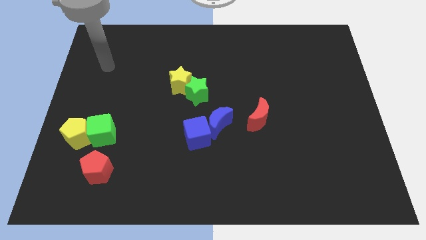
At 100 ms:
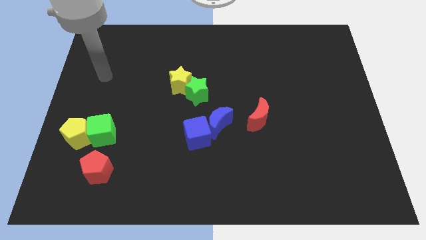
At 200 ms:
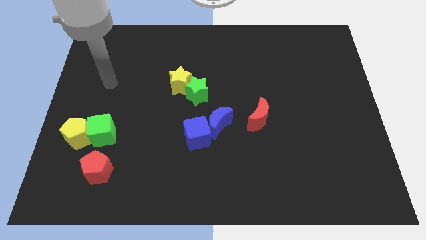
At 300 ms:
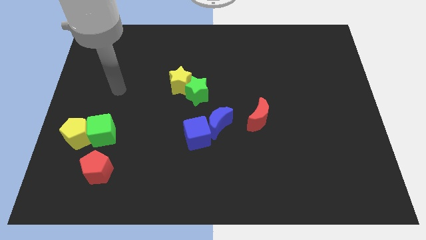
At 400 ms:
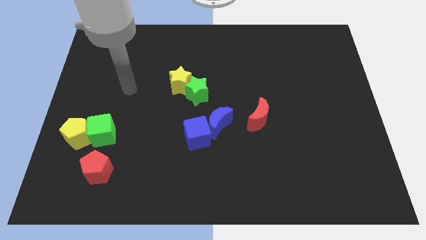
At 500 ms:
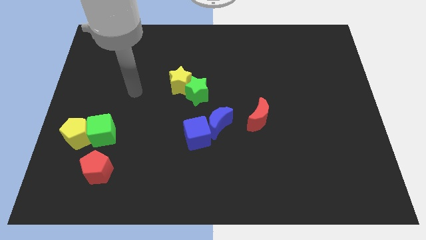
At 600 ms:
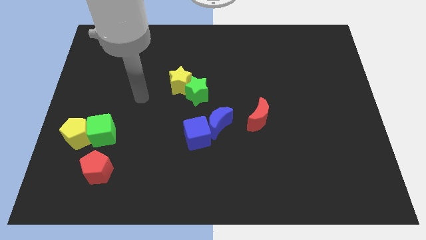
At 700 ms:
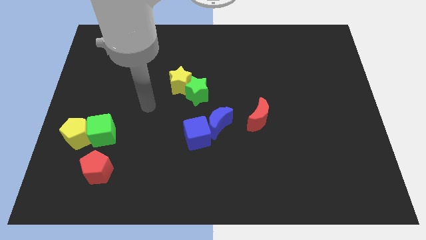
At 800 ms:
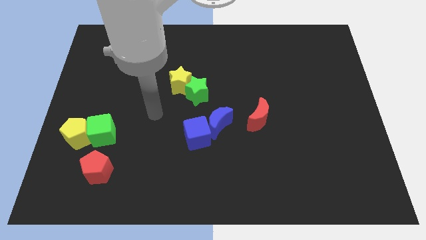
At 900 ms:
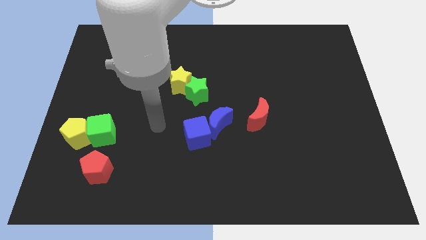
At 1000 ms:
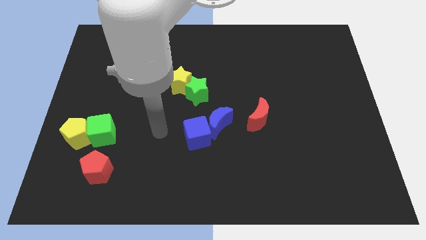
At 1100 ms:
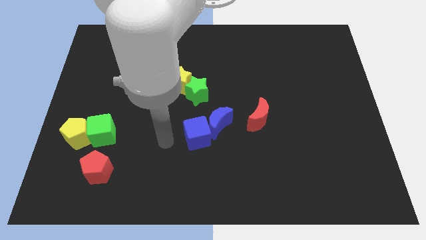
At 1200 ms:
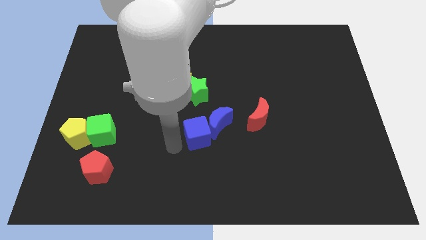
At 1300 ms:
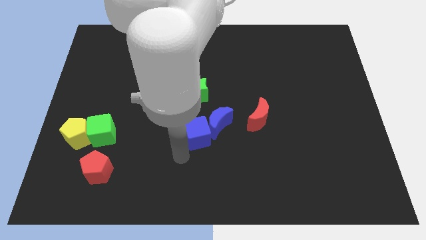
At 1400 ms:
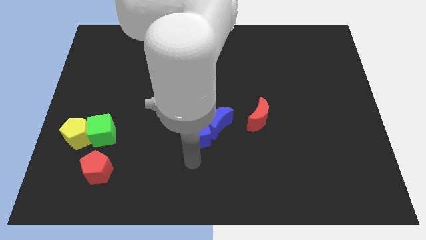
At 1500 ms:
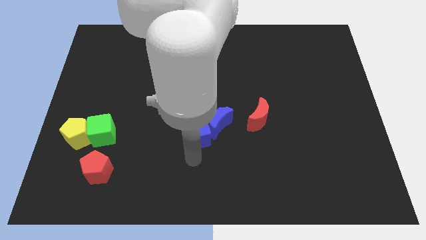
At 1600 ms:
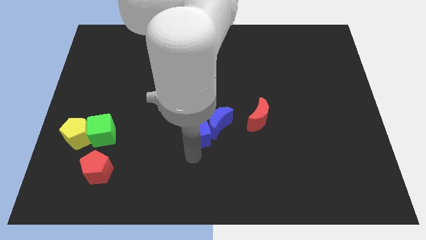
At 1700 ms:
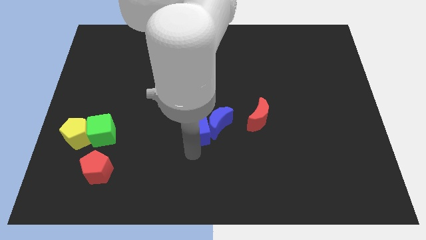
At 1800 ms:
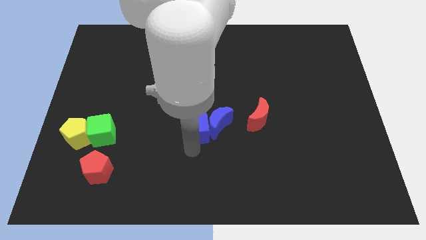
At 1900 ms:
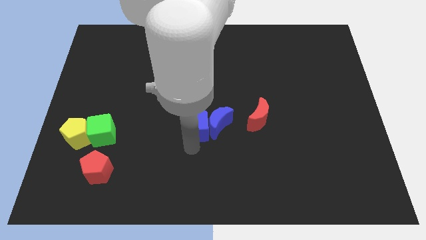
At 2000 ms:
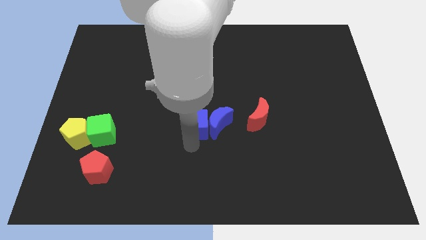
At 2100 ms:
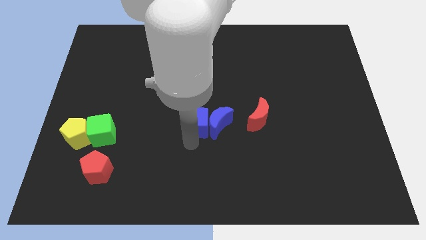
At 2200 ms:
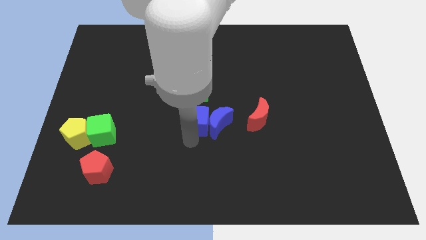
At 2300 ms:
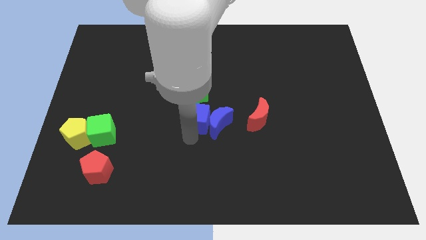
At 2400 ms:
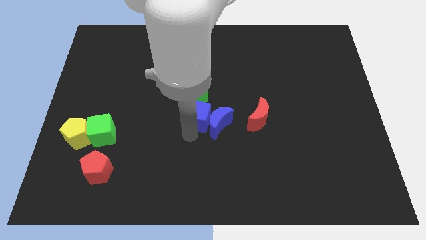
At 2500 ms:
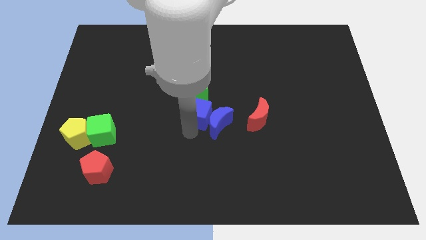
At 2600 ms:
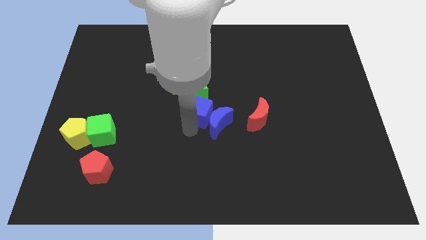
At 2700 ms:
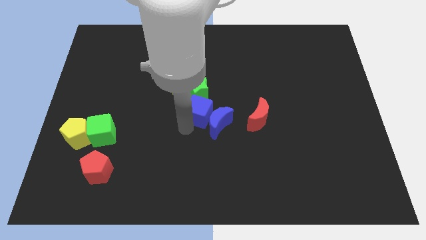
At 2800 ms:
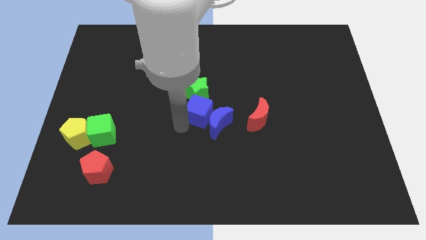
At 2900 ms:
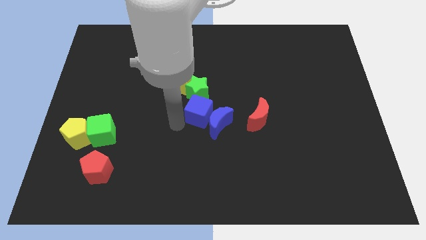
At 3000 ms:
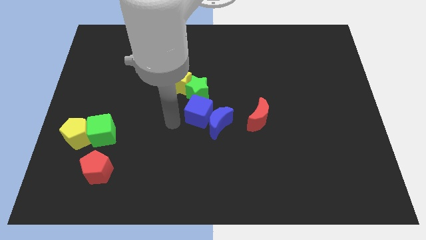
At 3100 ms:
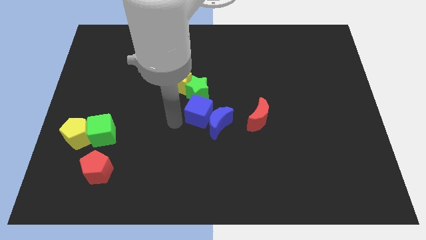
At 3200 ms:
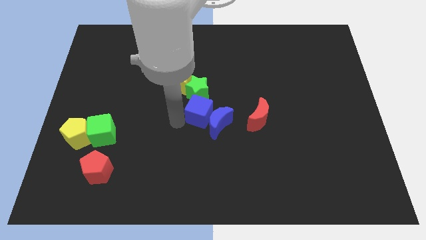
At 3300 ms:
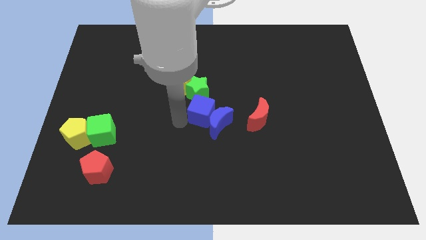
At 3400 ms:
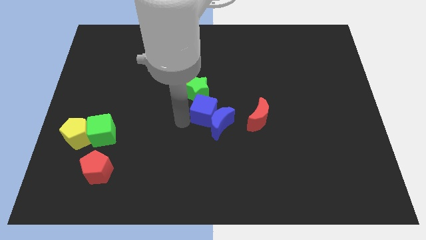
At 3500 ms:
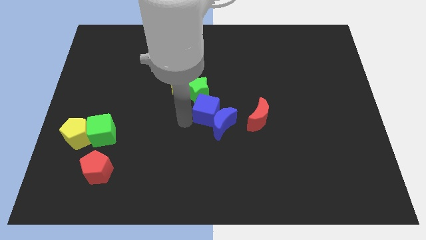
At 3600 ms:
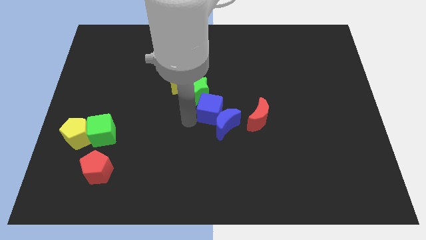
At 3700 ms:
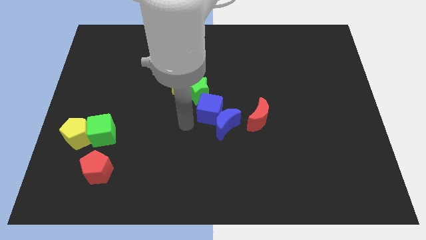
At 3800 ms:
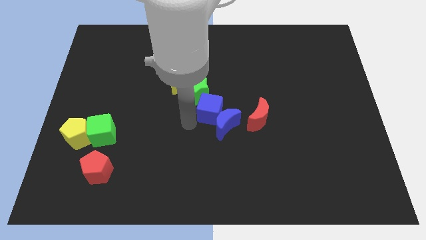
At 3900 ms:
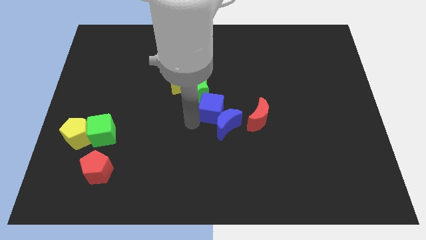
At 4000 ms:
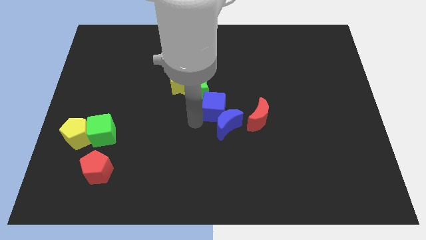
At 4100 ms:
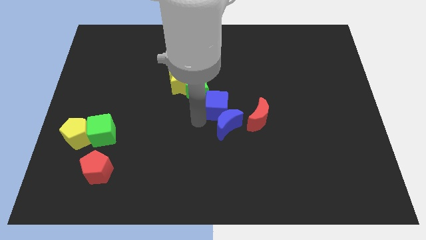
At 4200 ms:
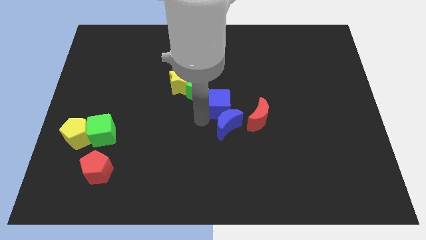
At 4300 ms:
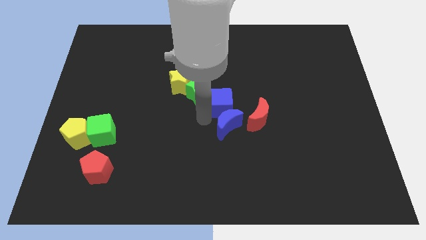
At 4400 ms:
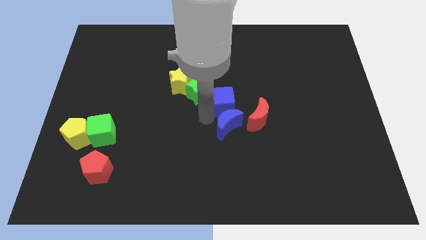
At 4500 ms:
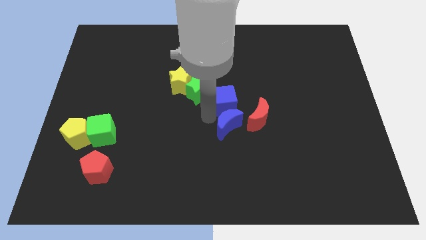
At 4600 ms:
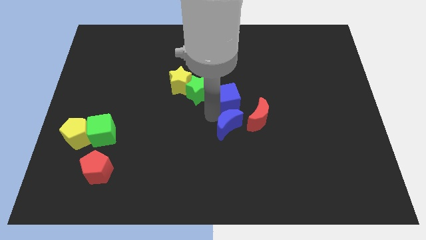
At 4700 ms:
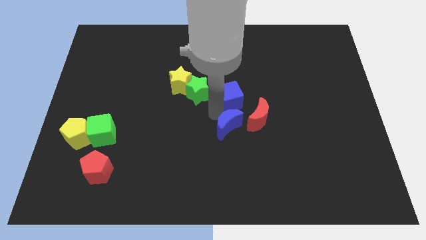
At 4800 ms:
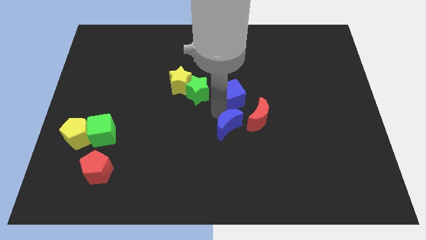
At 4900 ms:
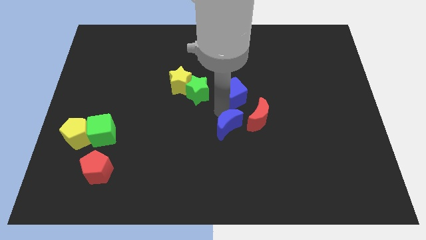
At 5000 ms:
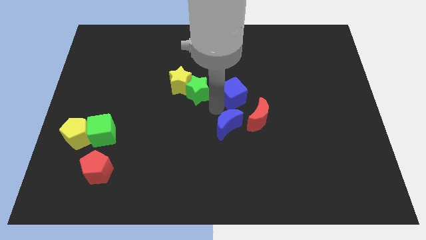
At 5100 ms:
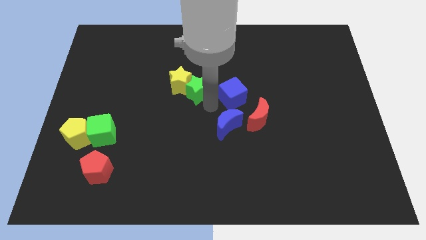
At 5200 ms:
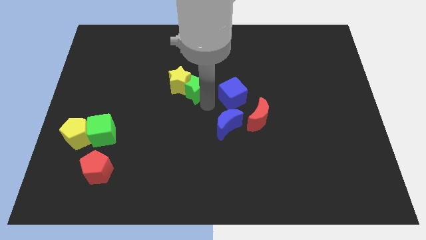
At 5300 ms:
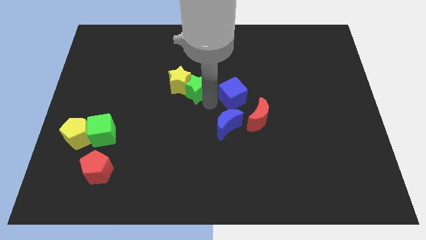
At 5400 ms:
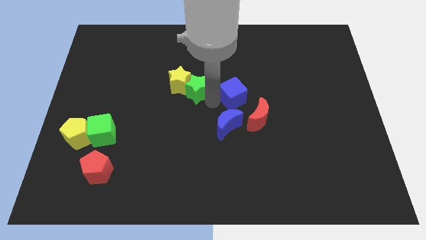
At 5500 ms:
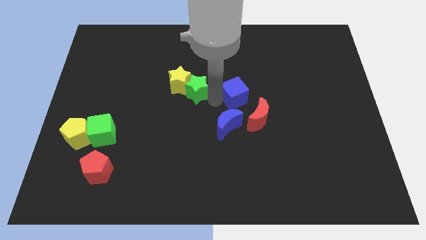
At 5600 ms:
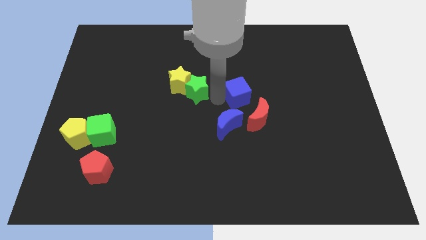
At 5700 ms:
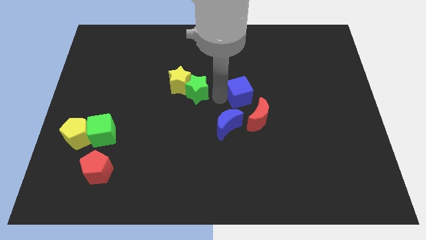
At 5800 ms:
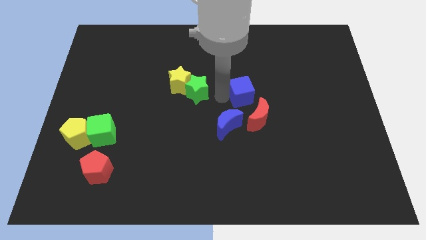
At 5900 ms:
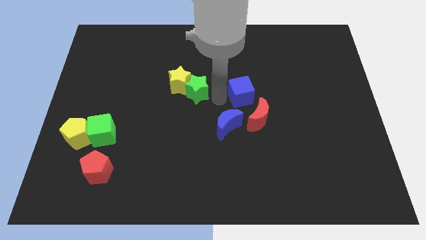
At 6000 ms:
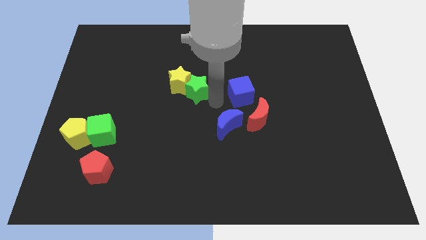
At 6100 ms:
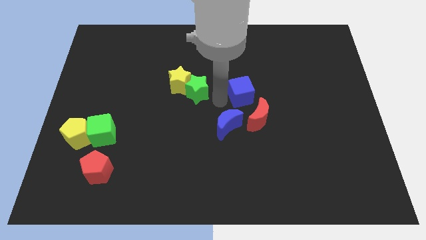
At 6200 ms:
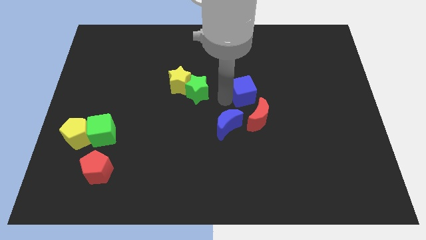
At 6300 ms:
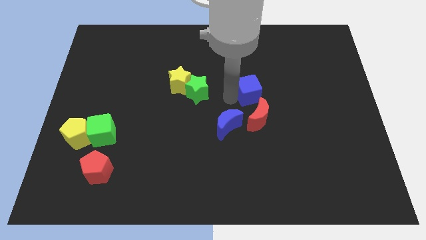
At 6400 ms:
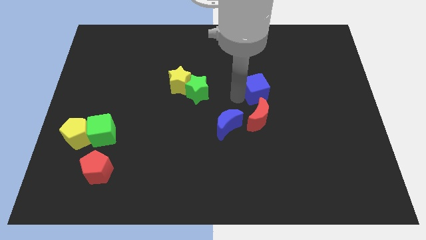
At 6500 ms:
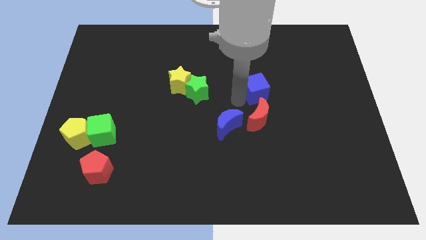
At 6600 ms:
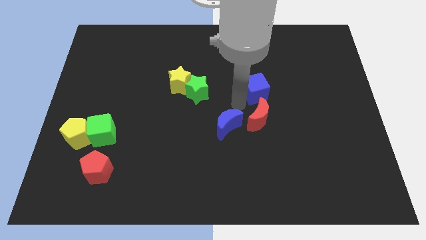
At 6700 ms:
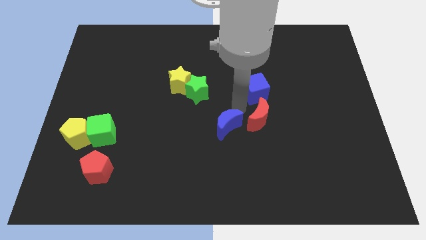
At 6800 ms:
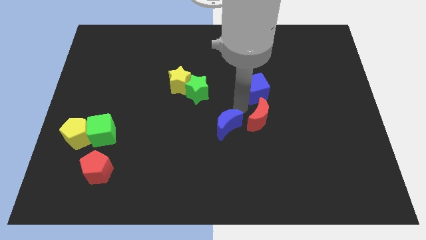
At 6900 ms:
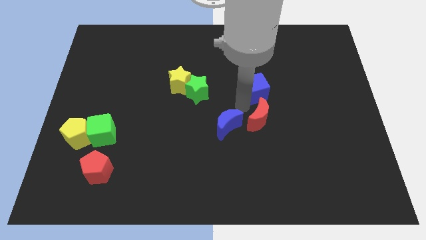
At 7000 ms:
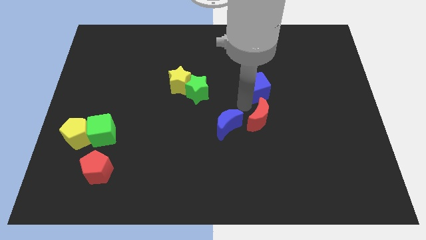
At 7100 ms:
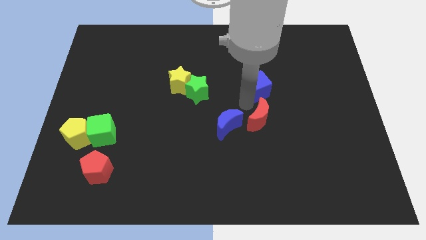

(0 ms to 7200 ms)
move the blue cube upwards and then right

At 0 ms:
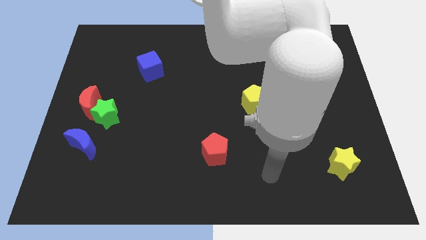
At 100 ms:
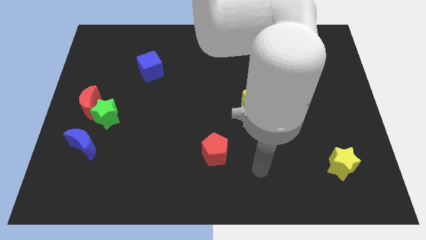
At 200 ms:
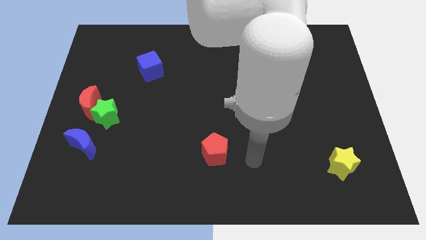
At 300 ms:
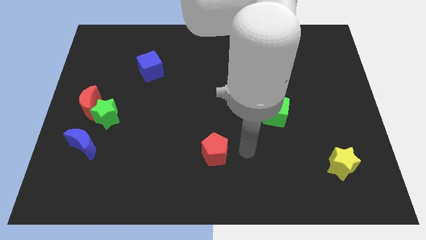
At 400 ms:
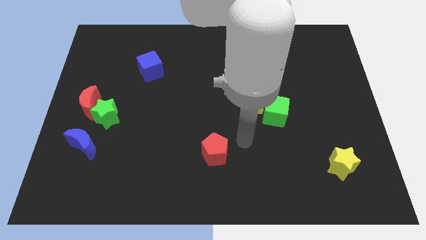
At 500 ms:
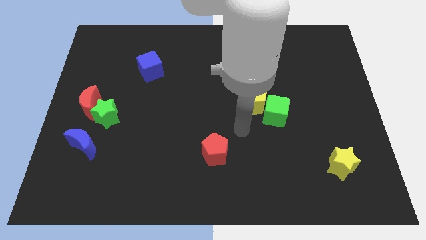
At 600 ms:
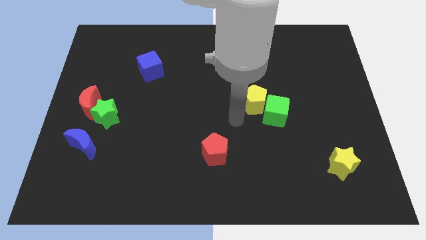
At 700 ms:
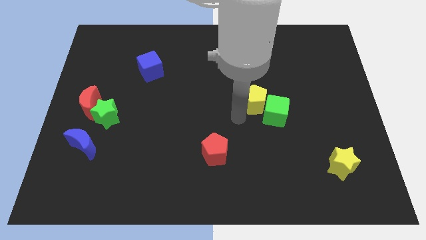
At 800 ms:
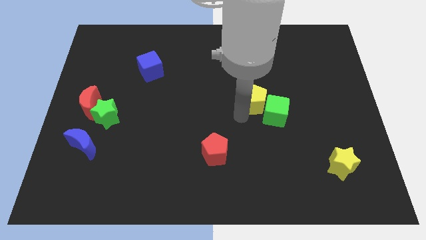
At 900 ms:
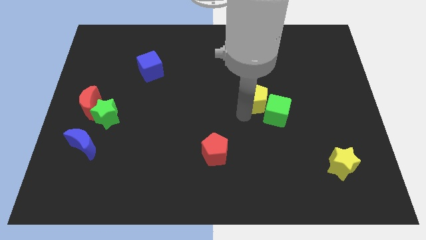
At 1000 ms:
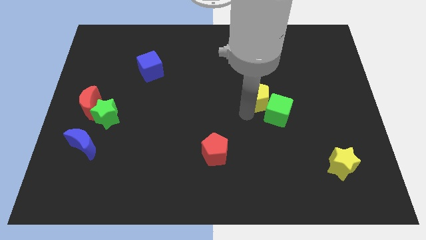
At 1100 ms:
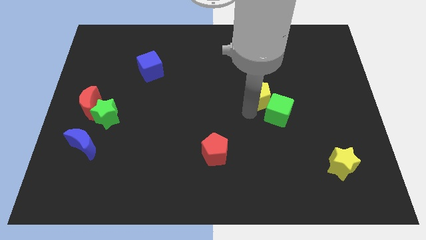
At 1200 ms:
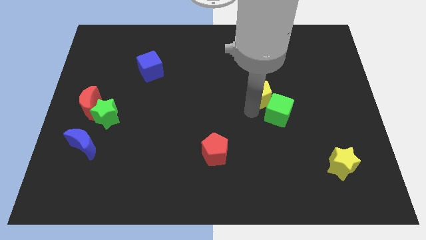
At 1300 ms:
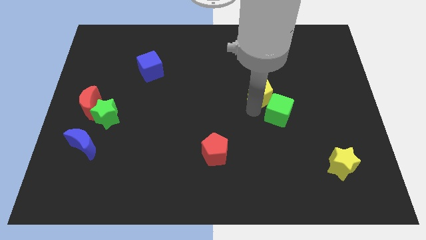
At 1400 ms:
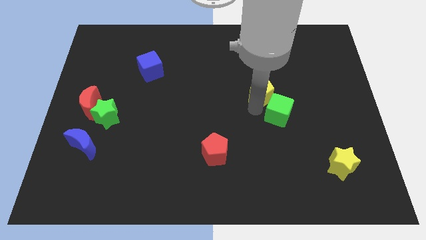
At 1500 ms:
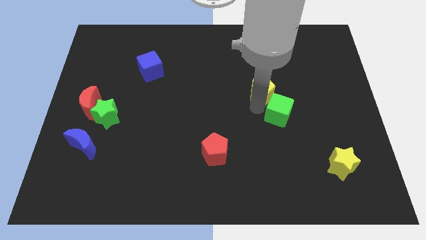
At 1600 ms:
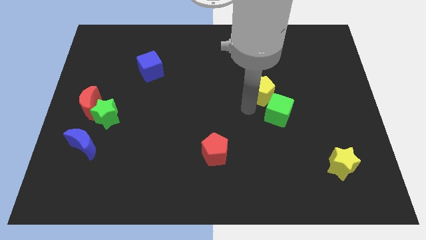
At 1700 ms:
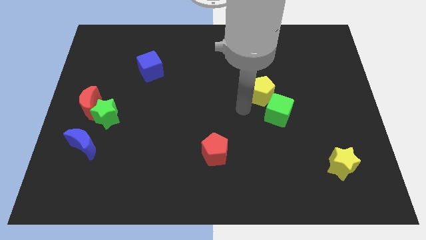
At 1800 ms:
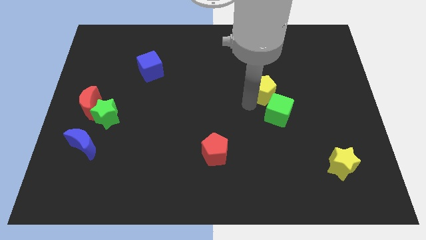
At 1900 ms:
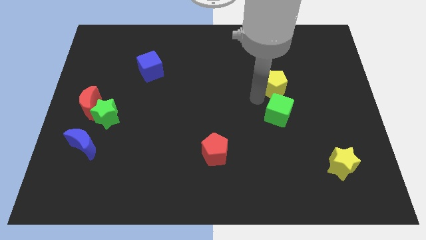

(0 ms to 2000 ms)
push the yellow pentagon slightly up and right
